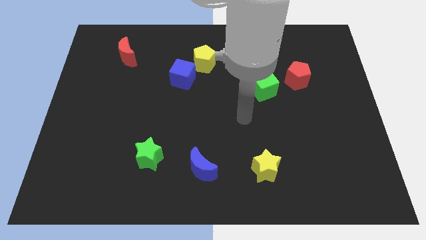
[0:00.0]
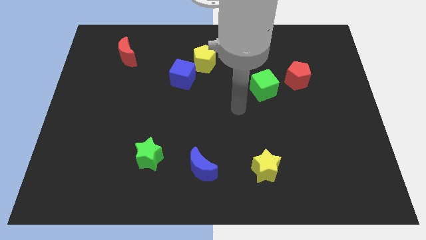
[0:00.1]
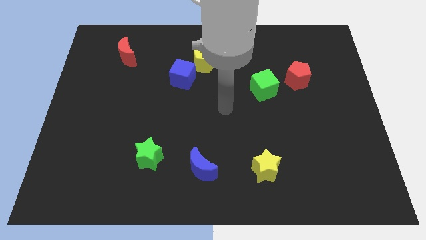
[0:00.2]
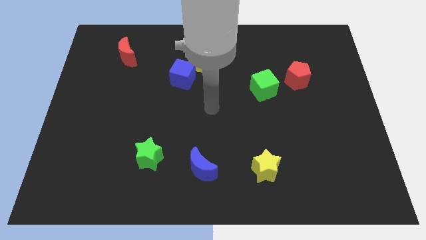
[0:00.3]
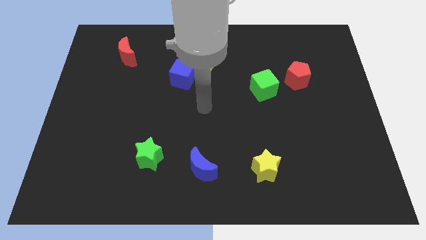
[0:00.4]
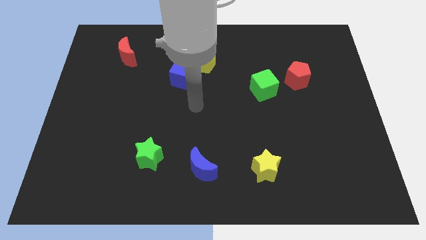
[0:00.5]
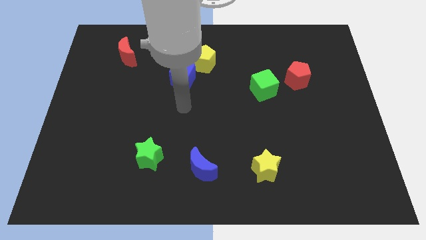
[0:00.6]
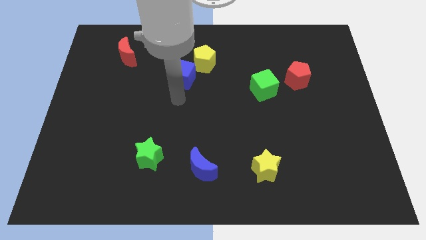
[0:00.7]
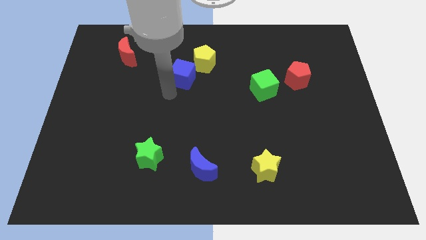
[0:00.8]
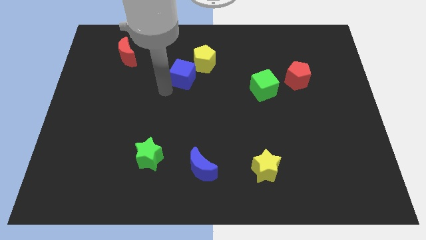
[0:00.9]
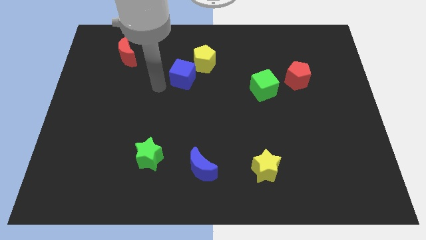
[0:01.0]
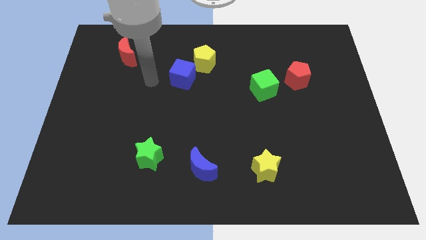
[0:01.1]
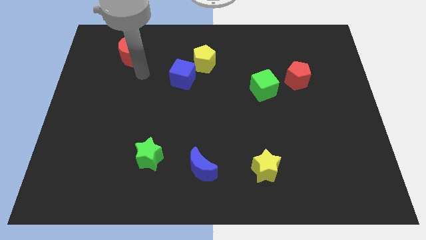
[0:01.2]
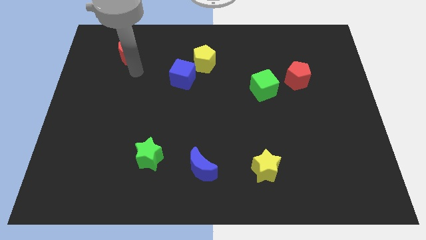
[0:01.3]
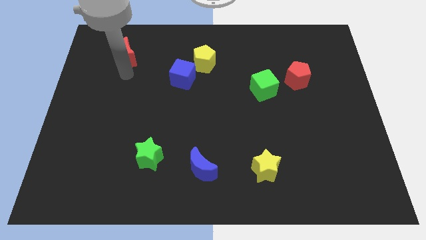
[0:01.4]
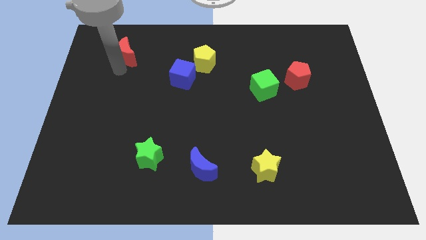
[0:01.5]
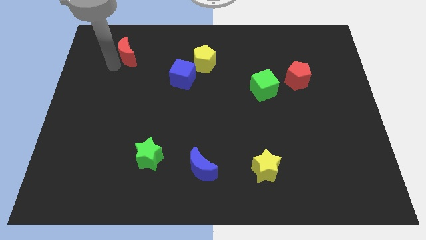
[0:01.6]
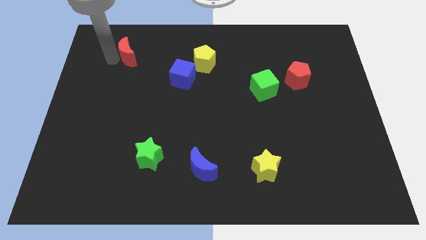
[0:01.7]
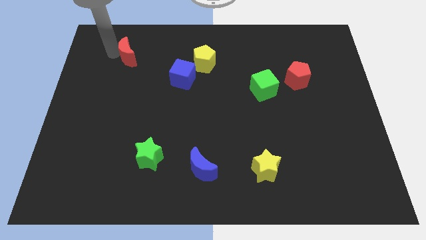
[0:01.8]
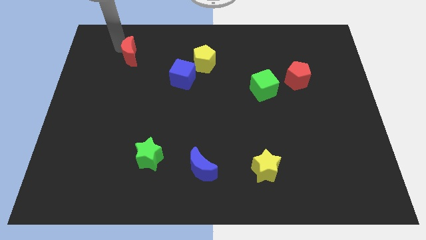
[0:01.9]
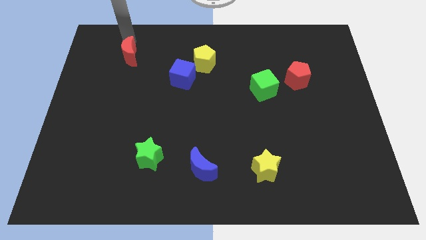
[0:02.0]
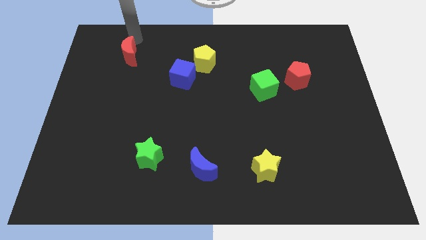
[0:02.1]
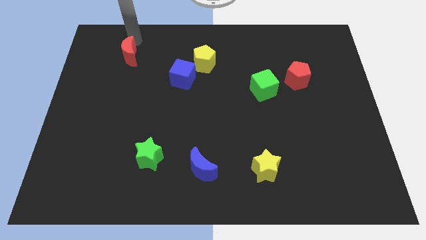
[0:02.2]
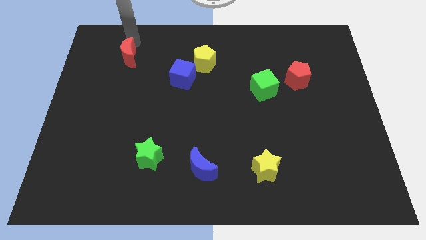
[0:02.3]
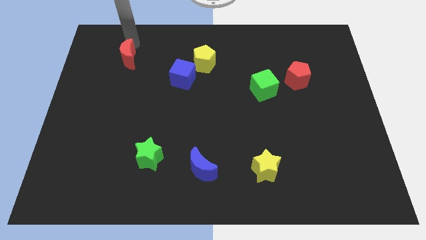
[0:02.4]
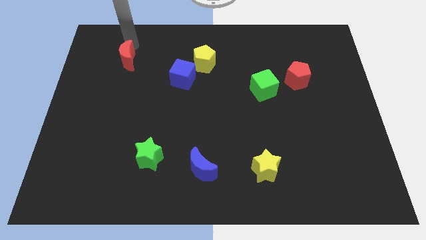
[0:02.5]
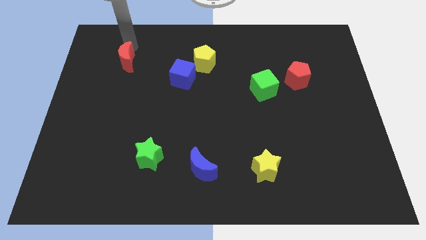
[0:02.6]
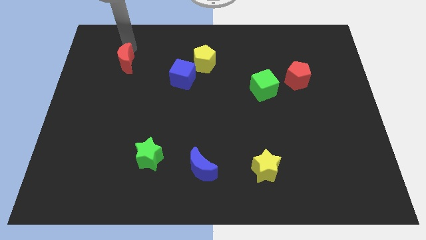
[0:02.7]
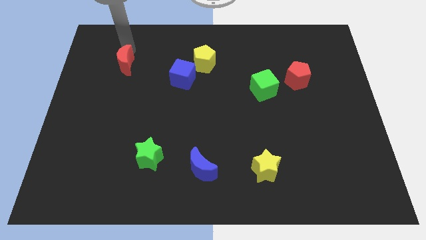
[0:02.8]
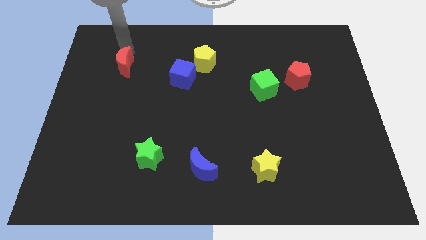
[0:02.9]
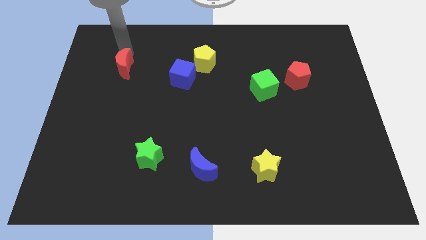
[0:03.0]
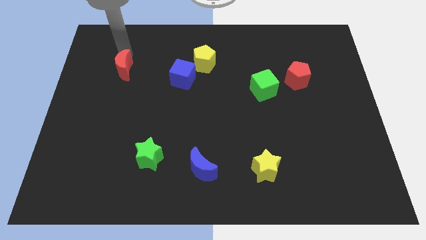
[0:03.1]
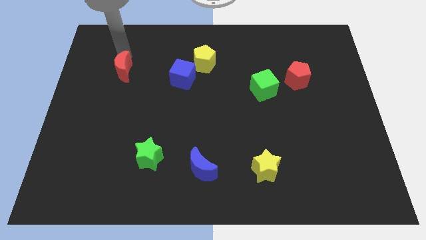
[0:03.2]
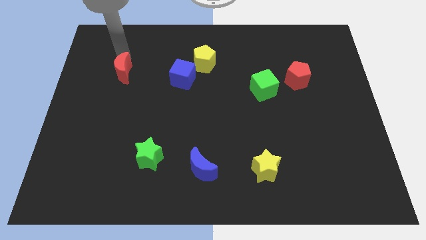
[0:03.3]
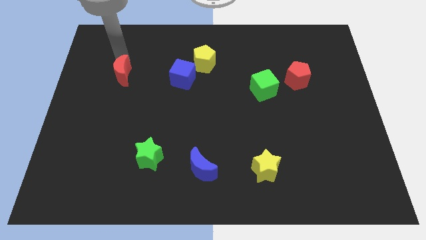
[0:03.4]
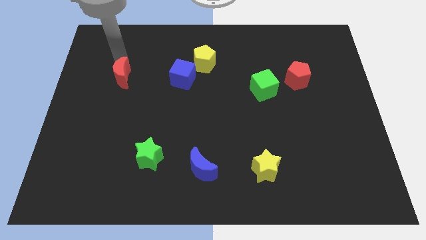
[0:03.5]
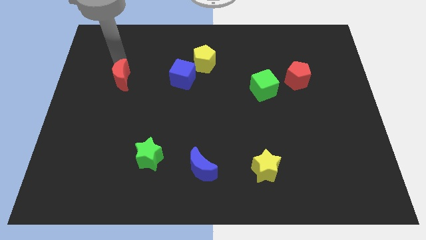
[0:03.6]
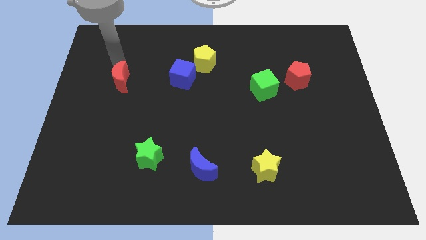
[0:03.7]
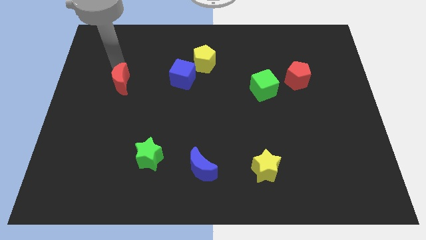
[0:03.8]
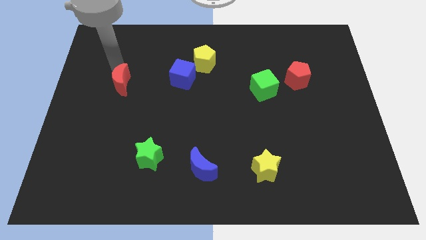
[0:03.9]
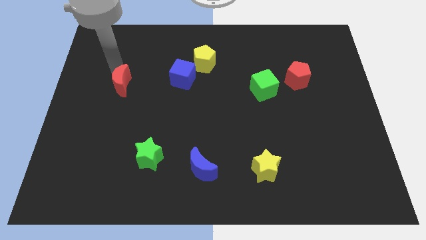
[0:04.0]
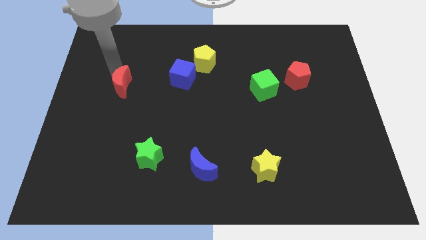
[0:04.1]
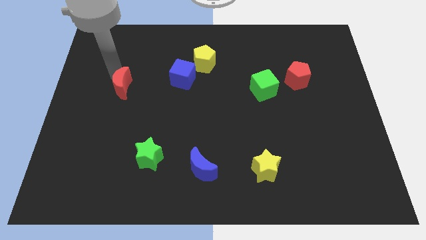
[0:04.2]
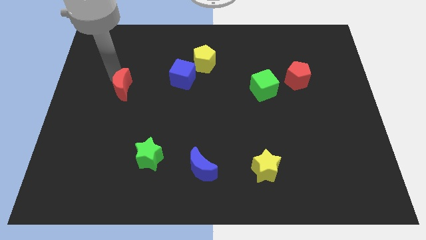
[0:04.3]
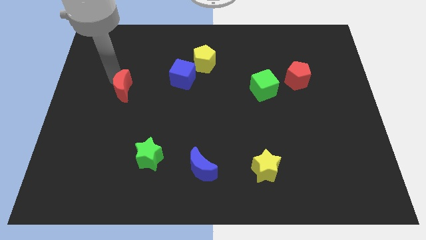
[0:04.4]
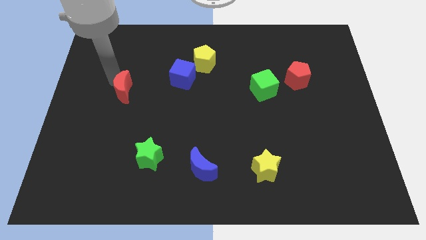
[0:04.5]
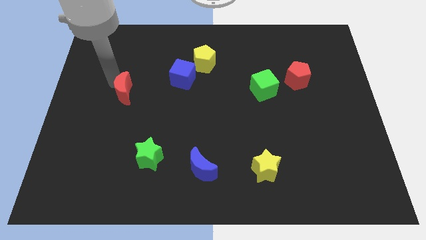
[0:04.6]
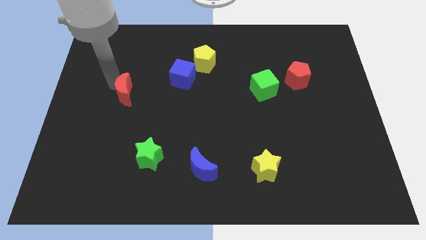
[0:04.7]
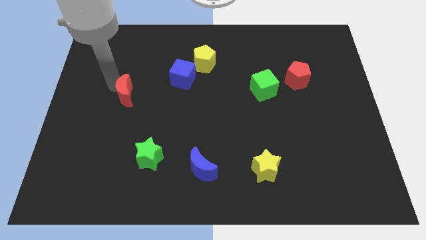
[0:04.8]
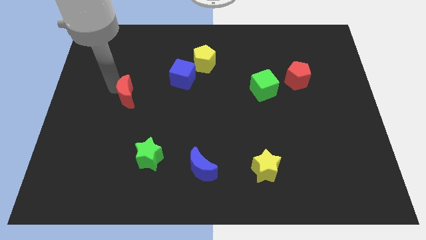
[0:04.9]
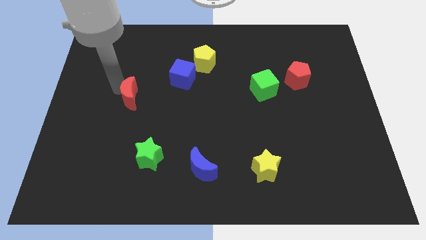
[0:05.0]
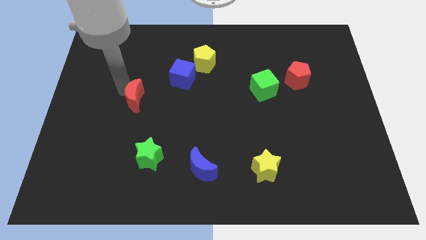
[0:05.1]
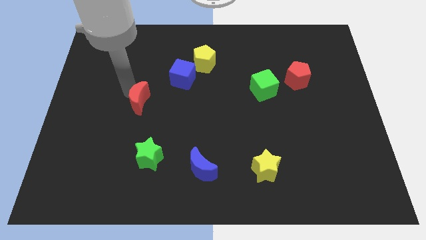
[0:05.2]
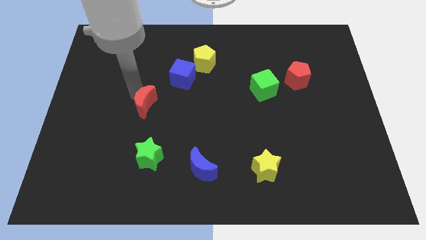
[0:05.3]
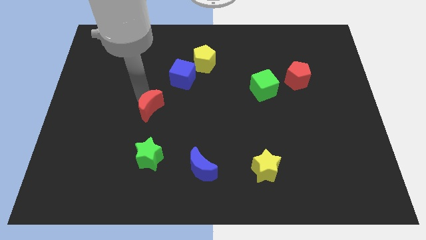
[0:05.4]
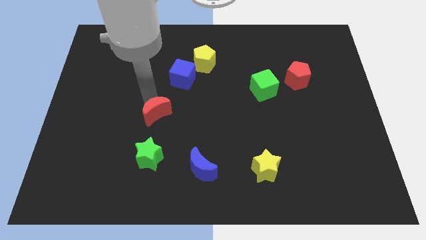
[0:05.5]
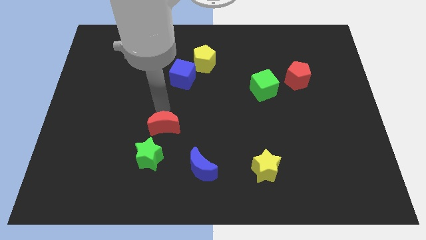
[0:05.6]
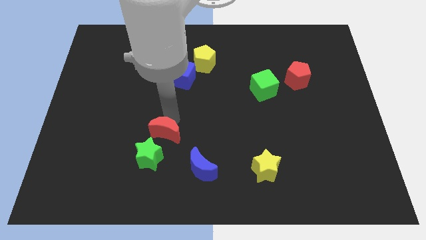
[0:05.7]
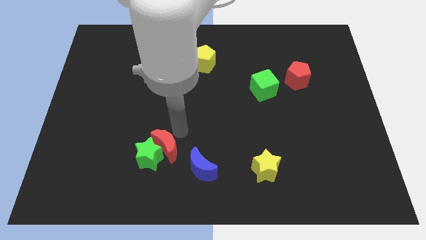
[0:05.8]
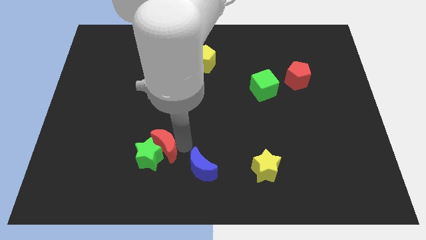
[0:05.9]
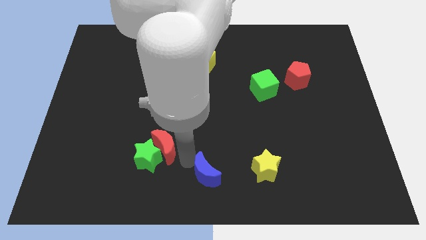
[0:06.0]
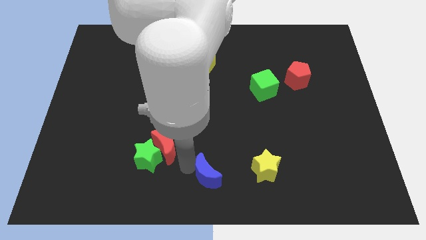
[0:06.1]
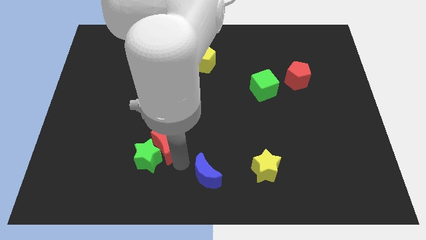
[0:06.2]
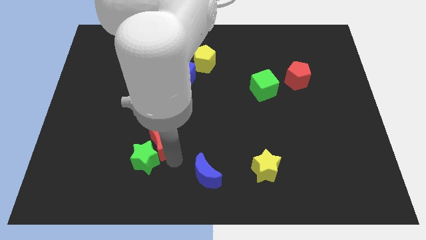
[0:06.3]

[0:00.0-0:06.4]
move the red moon downwards

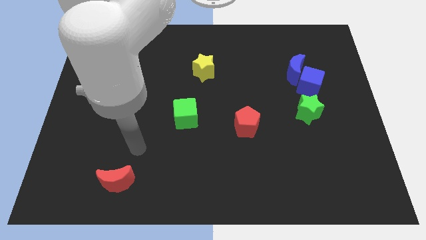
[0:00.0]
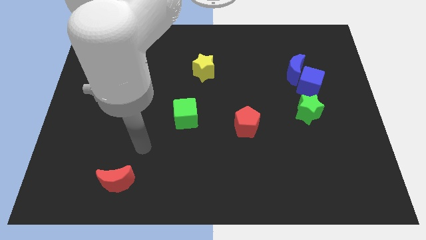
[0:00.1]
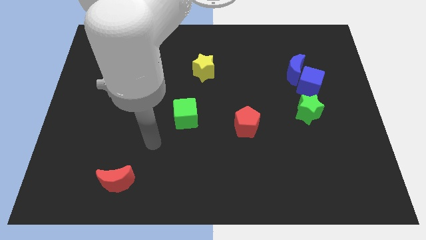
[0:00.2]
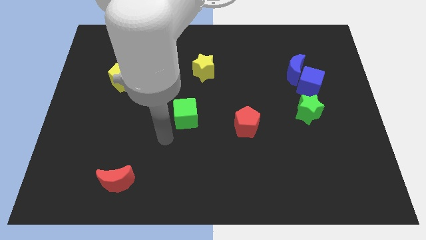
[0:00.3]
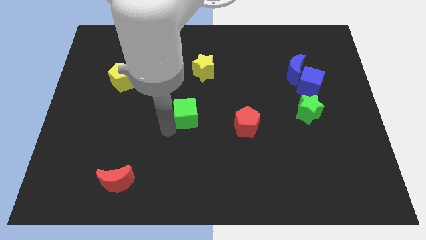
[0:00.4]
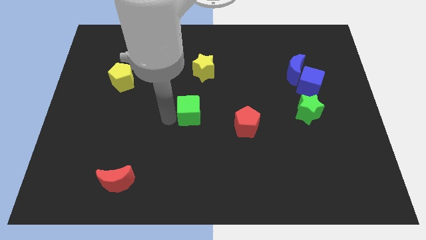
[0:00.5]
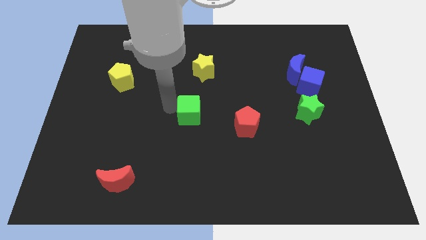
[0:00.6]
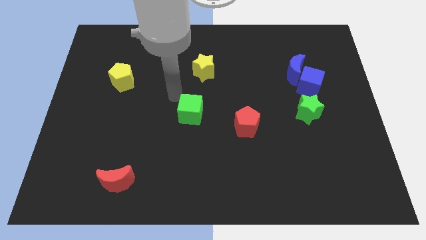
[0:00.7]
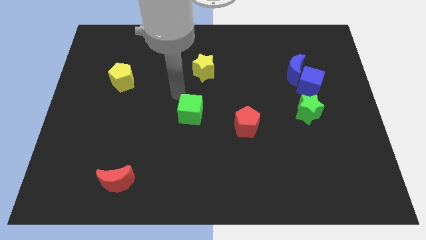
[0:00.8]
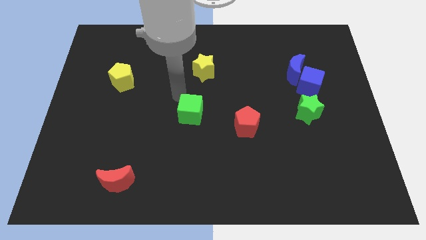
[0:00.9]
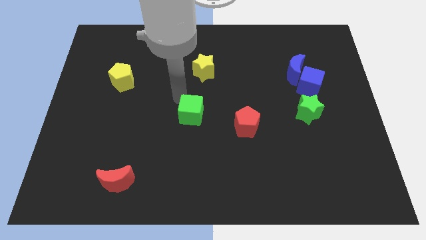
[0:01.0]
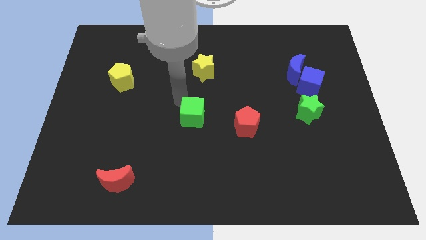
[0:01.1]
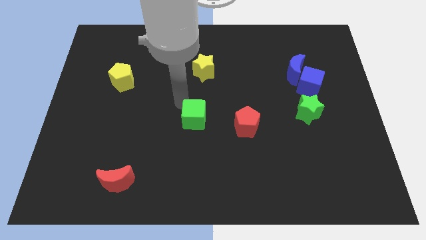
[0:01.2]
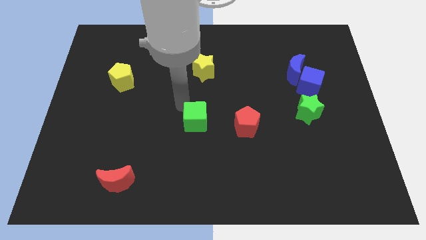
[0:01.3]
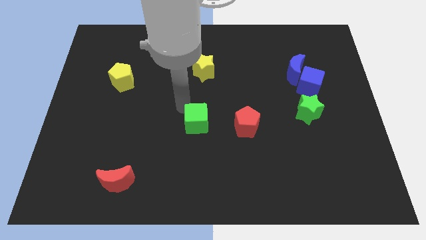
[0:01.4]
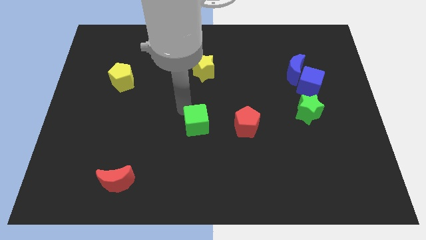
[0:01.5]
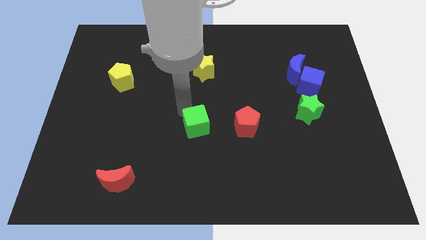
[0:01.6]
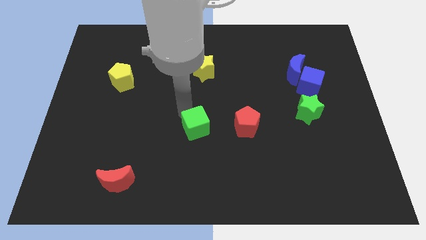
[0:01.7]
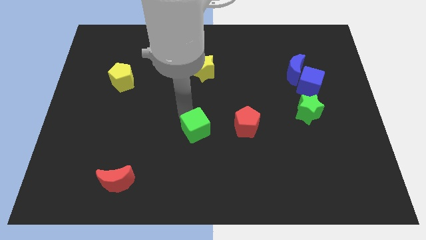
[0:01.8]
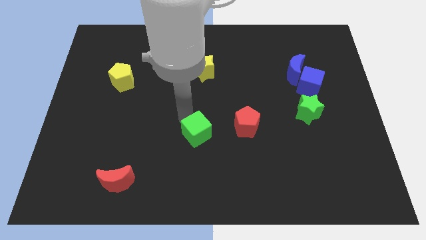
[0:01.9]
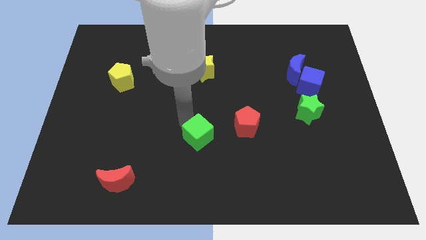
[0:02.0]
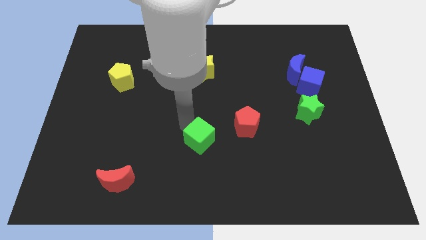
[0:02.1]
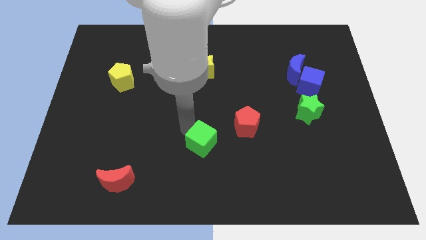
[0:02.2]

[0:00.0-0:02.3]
move the green cube a bit down and then right
